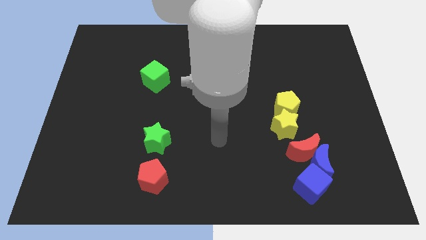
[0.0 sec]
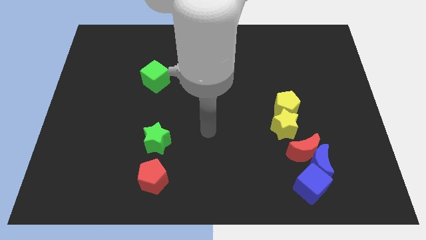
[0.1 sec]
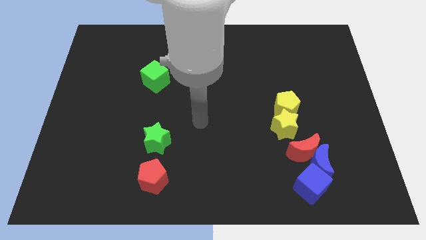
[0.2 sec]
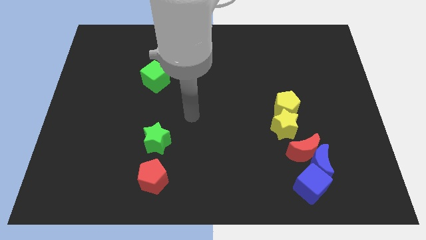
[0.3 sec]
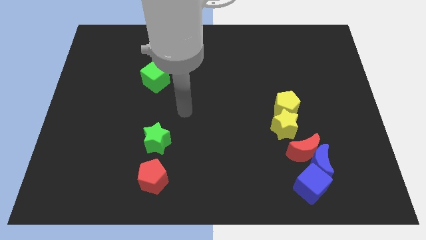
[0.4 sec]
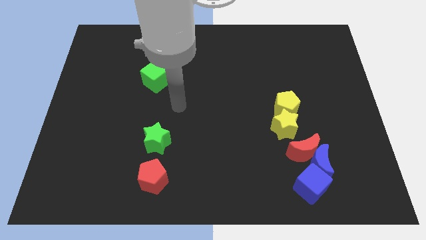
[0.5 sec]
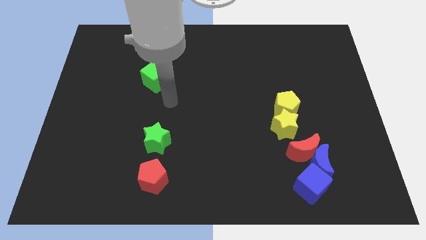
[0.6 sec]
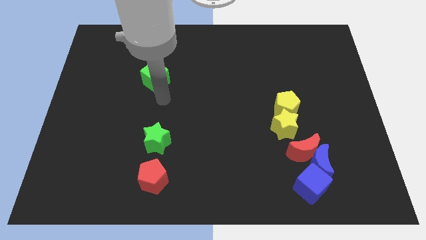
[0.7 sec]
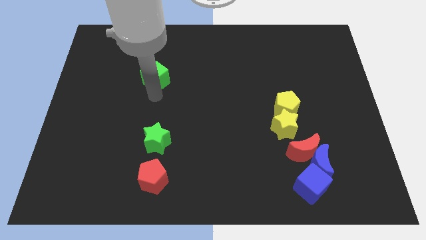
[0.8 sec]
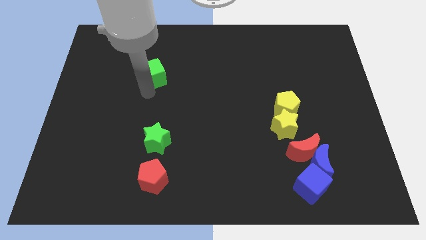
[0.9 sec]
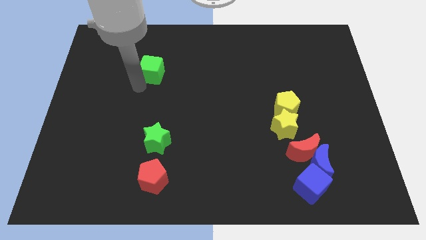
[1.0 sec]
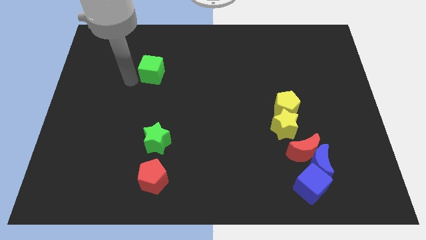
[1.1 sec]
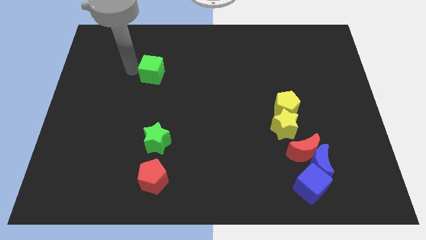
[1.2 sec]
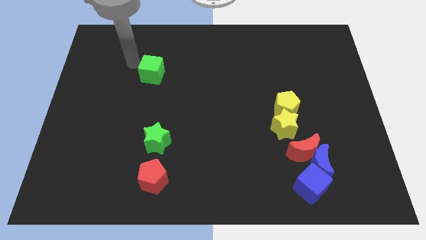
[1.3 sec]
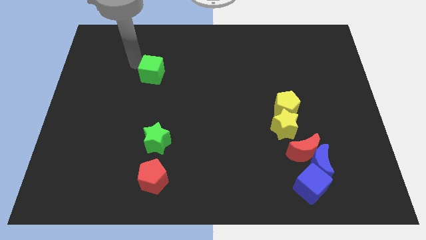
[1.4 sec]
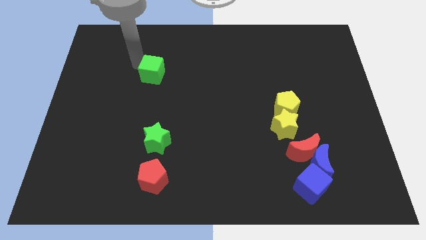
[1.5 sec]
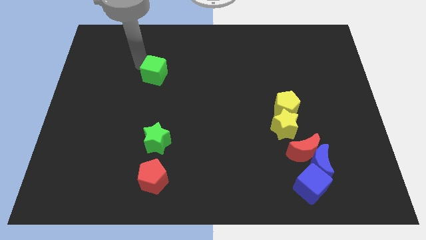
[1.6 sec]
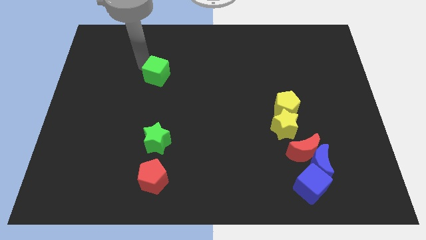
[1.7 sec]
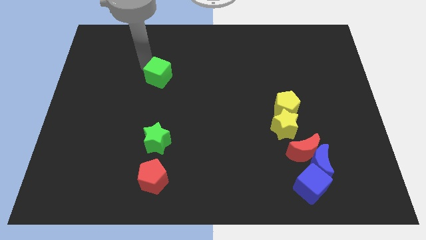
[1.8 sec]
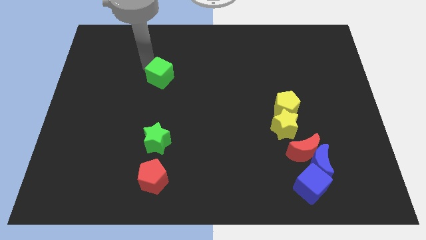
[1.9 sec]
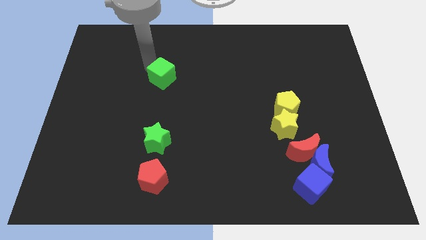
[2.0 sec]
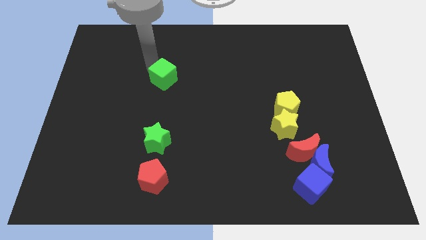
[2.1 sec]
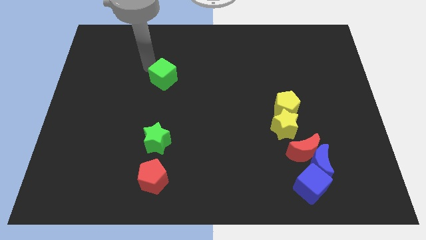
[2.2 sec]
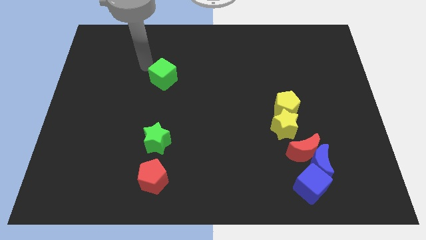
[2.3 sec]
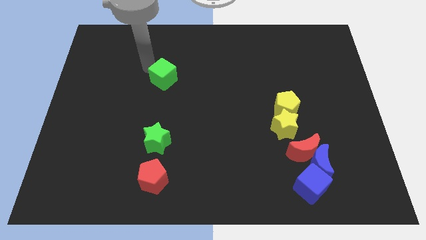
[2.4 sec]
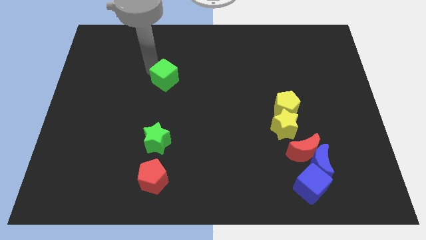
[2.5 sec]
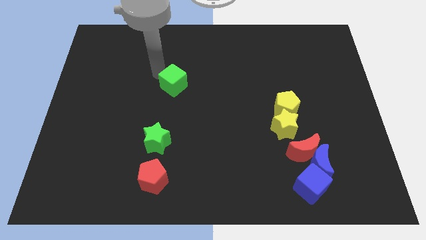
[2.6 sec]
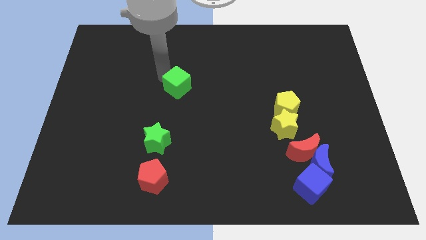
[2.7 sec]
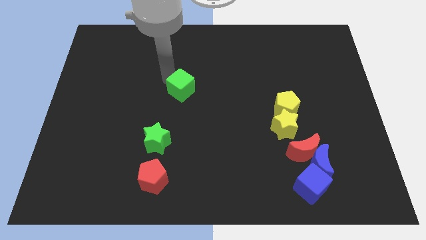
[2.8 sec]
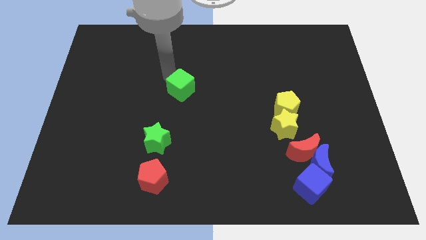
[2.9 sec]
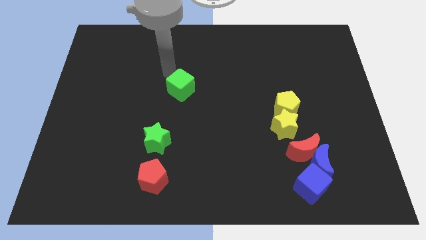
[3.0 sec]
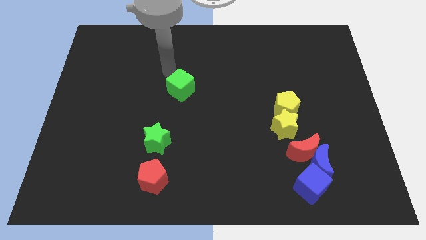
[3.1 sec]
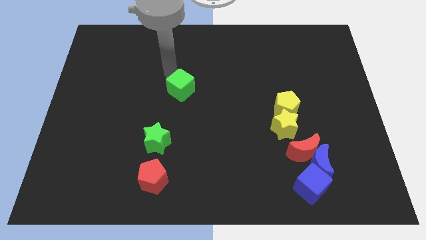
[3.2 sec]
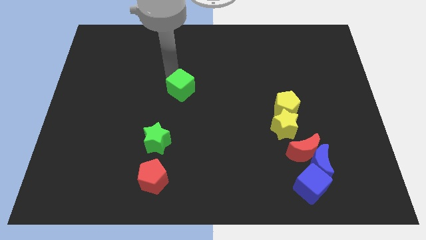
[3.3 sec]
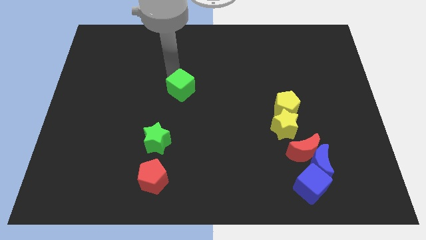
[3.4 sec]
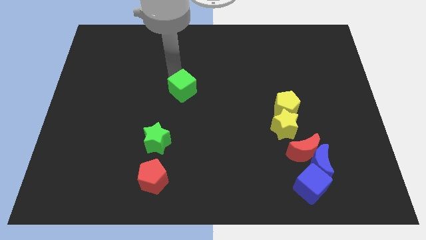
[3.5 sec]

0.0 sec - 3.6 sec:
push the green cube a bit down and then right

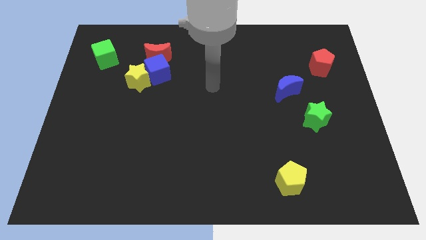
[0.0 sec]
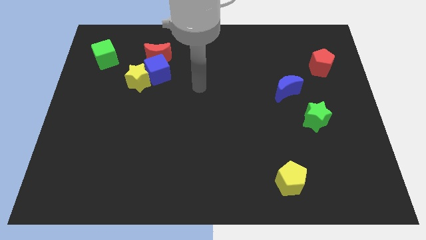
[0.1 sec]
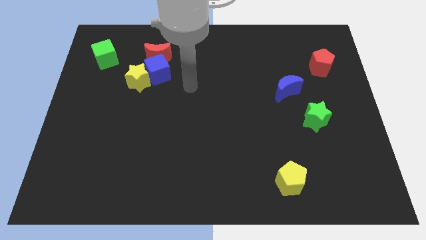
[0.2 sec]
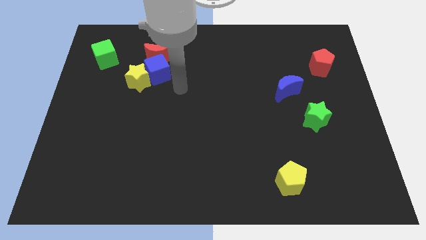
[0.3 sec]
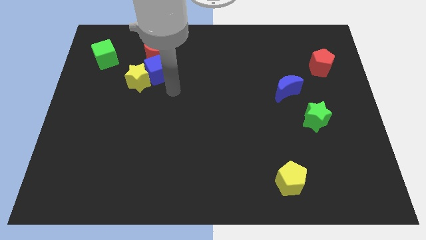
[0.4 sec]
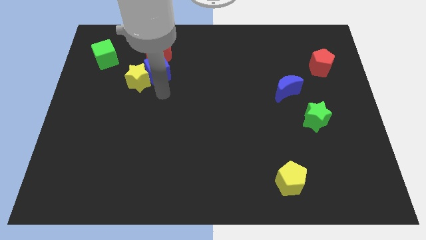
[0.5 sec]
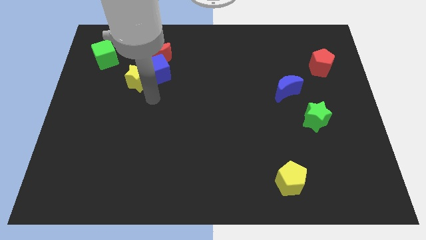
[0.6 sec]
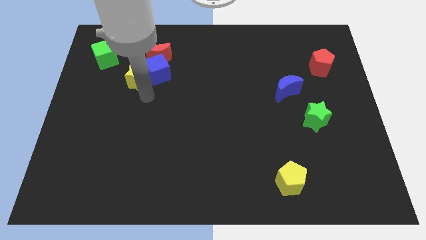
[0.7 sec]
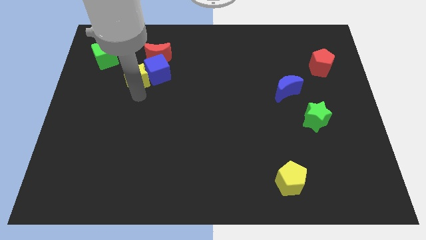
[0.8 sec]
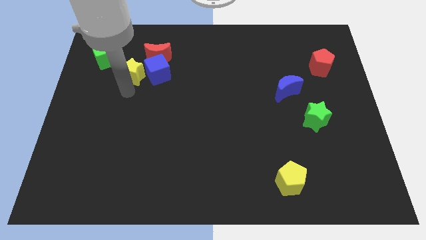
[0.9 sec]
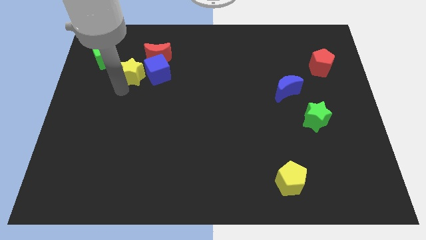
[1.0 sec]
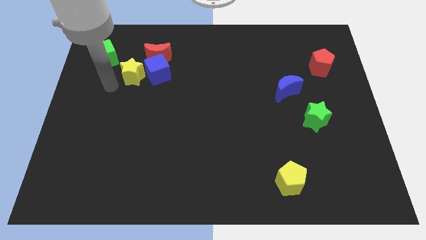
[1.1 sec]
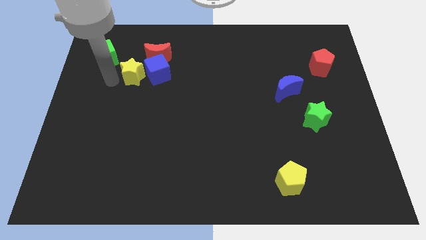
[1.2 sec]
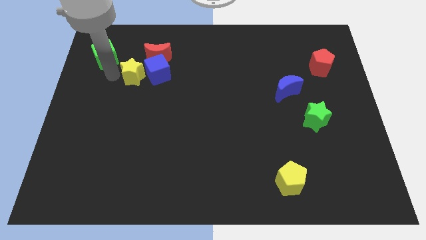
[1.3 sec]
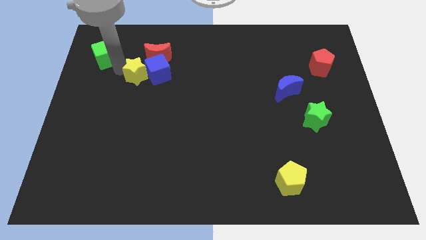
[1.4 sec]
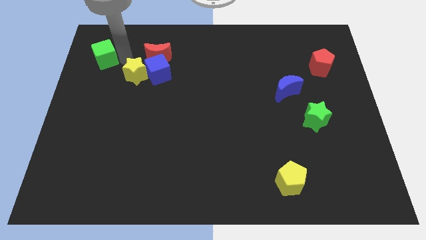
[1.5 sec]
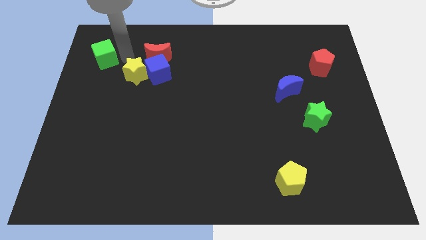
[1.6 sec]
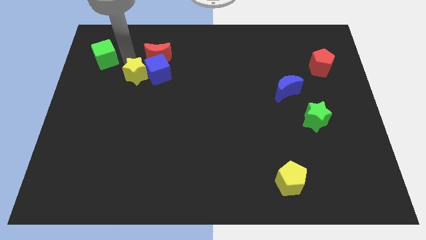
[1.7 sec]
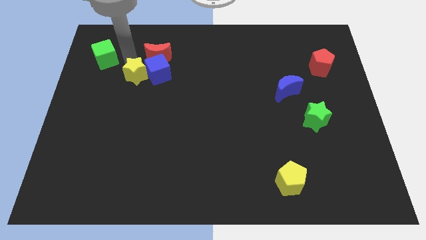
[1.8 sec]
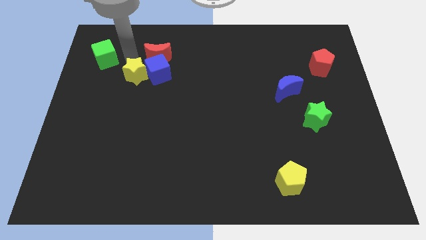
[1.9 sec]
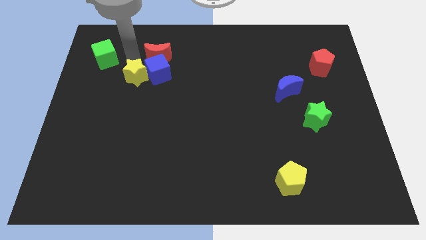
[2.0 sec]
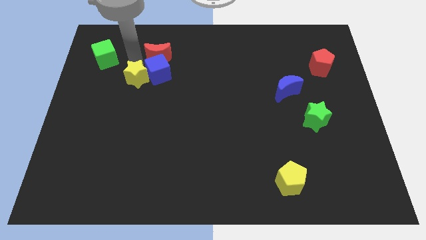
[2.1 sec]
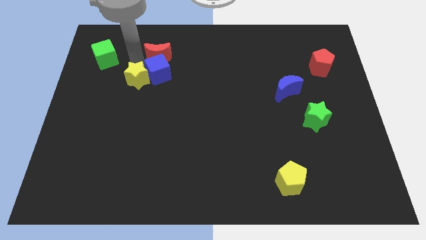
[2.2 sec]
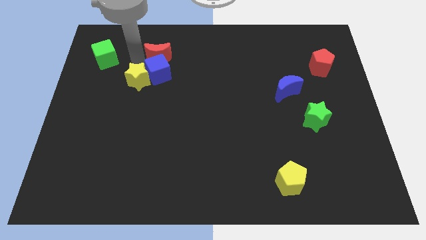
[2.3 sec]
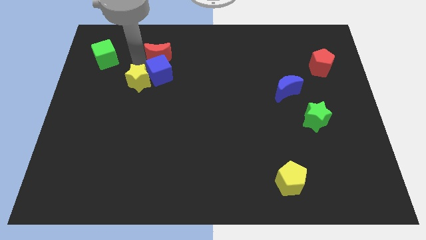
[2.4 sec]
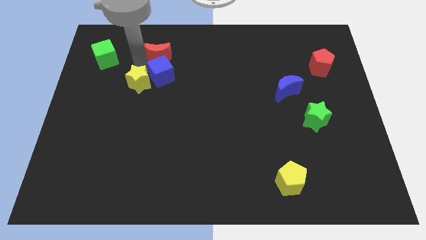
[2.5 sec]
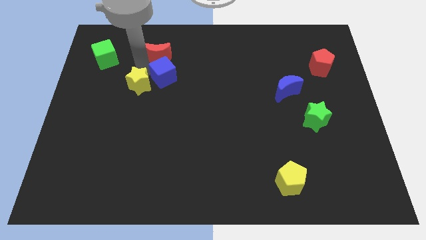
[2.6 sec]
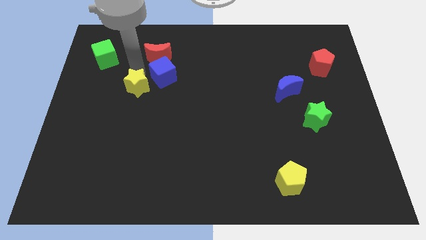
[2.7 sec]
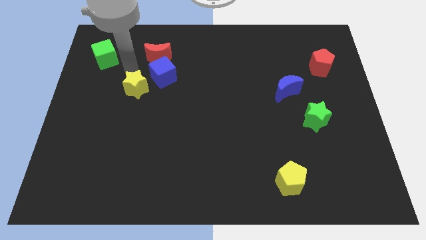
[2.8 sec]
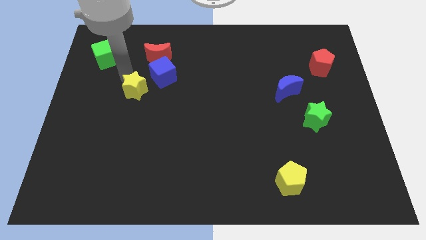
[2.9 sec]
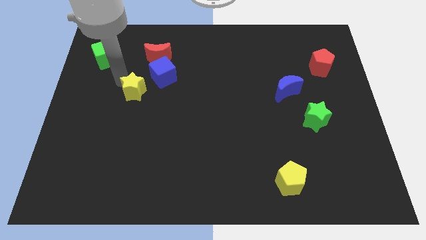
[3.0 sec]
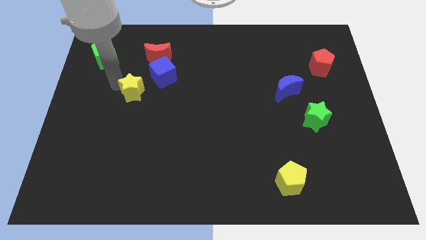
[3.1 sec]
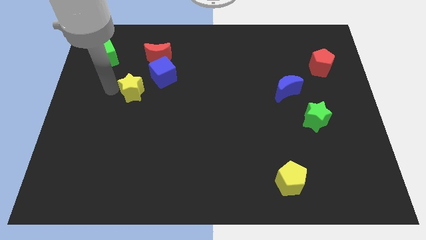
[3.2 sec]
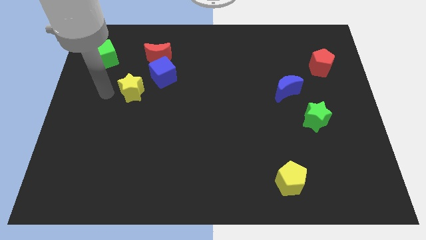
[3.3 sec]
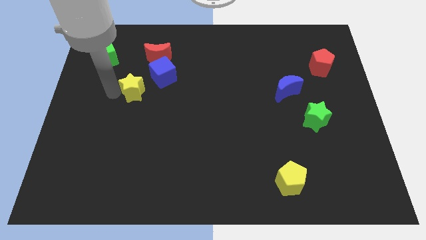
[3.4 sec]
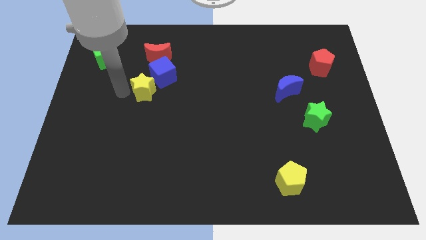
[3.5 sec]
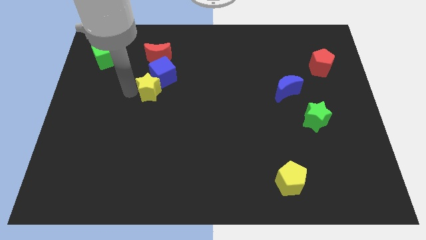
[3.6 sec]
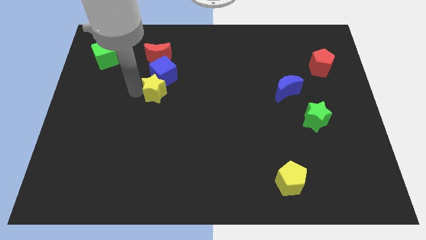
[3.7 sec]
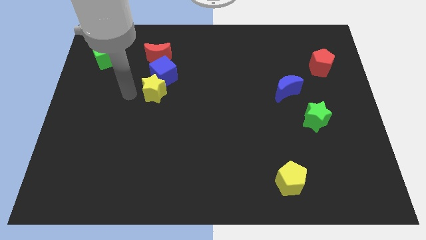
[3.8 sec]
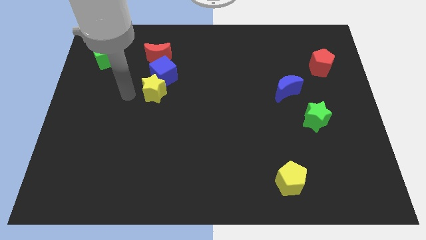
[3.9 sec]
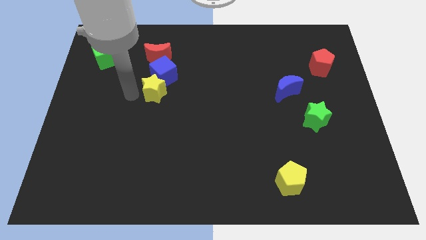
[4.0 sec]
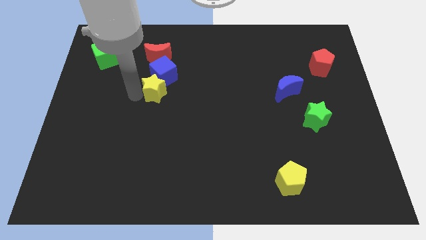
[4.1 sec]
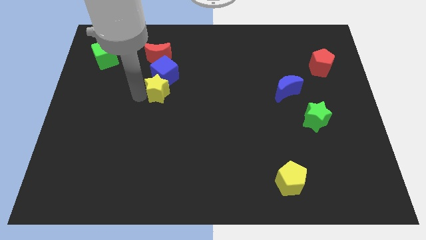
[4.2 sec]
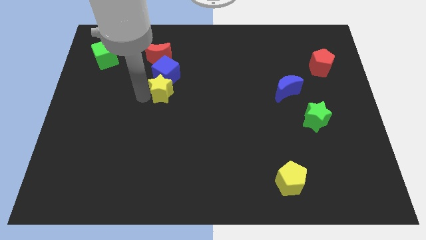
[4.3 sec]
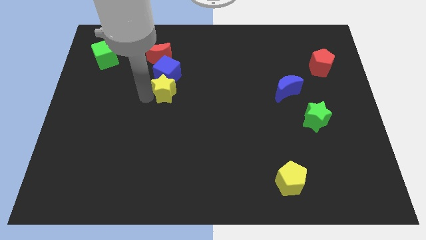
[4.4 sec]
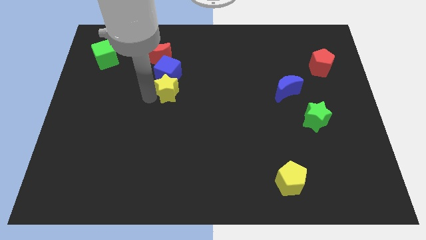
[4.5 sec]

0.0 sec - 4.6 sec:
slightly push the yellow star right
